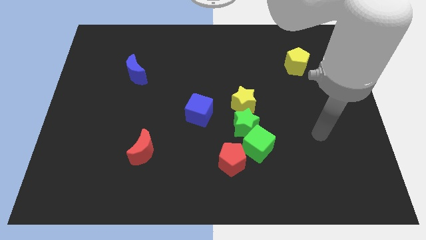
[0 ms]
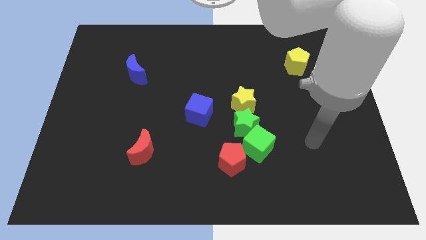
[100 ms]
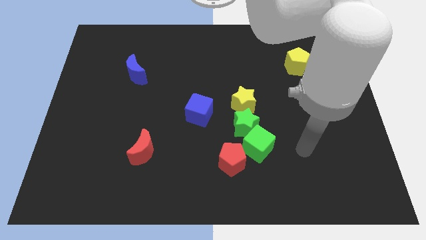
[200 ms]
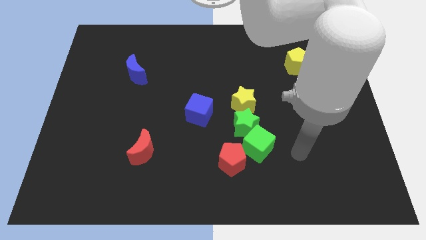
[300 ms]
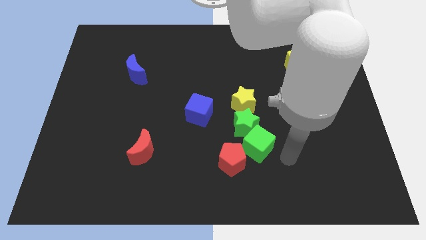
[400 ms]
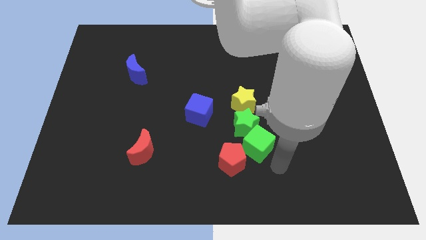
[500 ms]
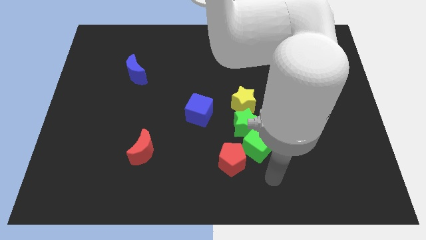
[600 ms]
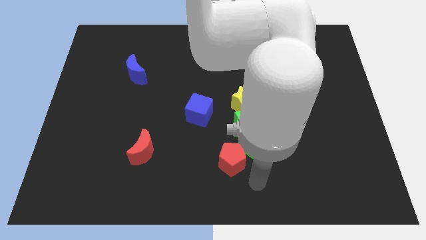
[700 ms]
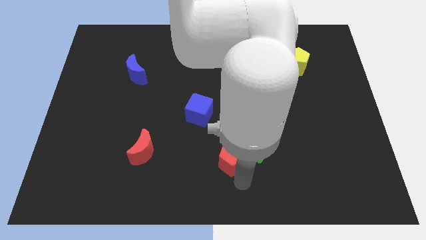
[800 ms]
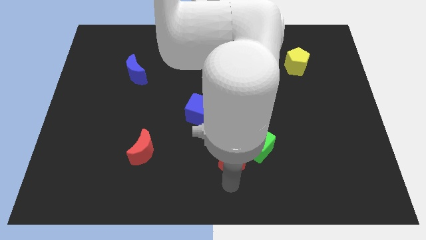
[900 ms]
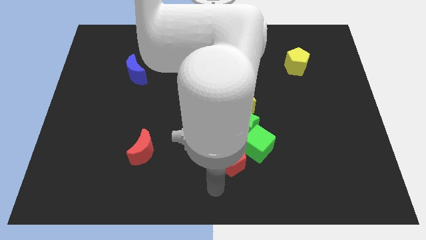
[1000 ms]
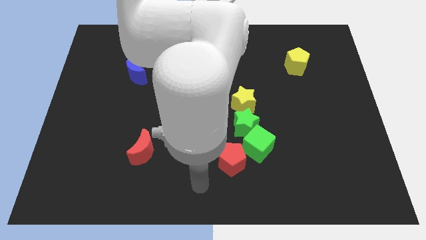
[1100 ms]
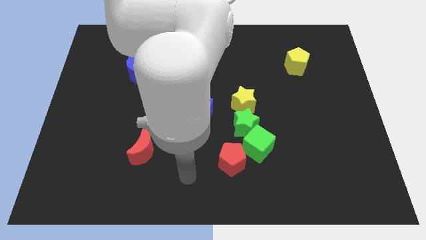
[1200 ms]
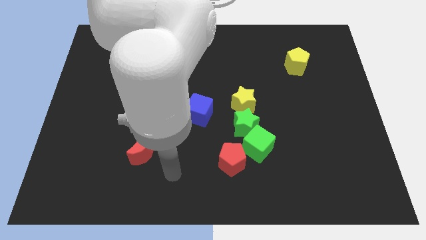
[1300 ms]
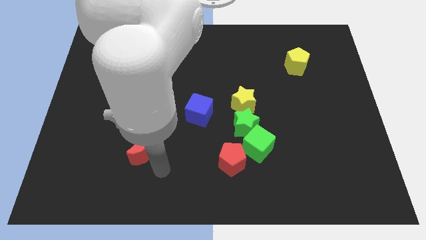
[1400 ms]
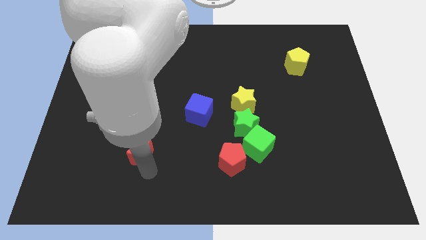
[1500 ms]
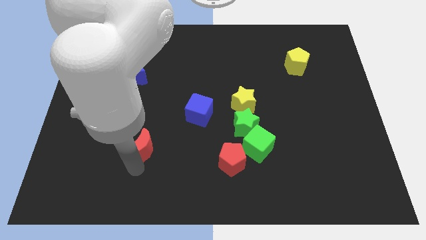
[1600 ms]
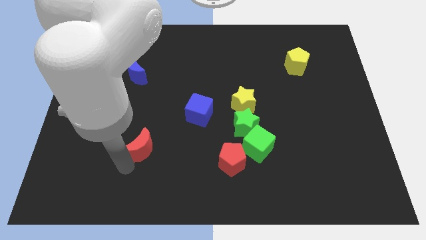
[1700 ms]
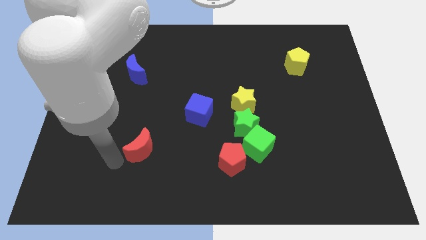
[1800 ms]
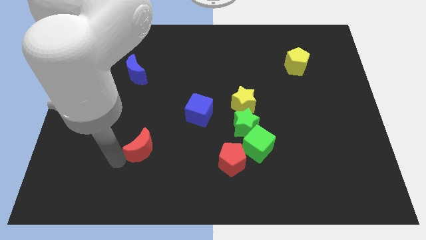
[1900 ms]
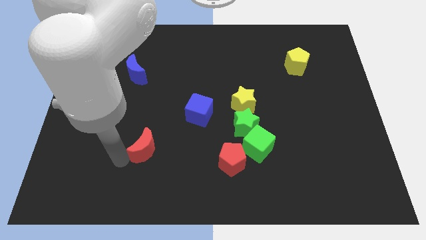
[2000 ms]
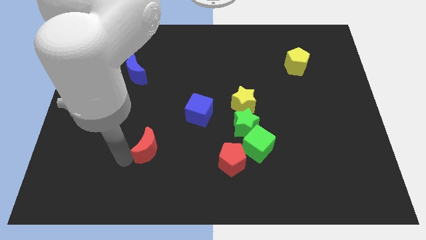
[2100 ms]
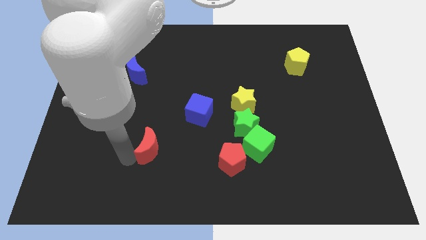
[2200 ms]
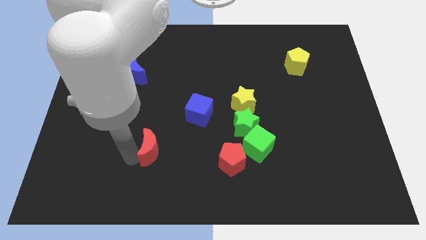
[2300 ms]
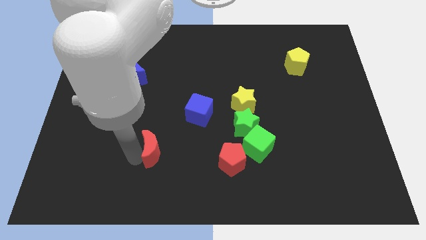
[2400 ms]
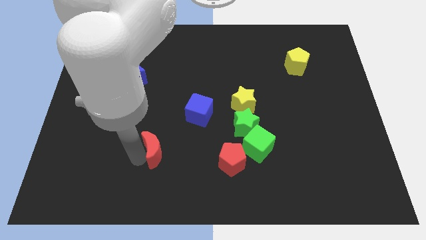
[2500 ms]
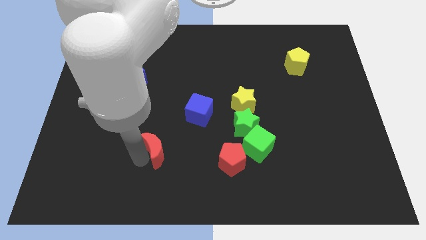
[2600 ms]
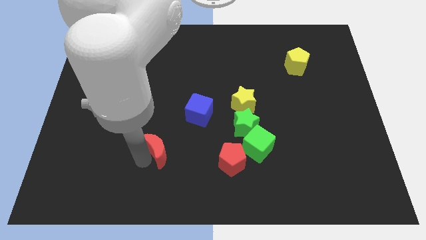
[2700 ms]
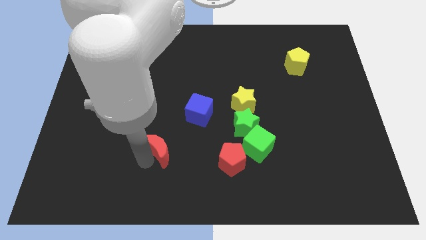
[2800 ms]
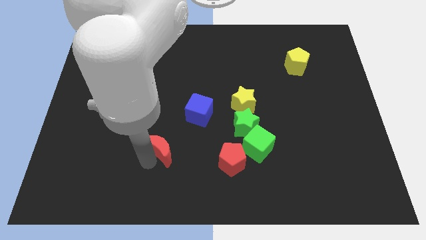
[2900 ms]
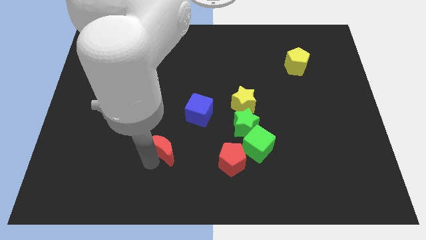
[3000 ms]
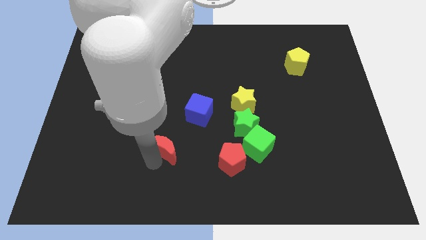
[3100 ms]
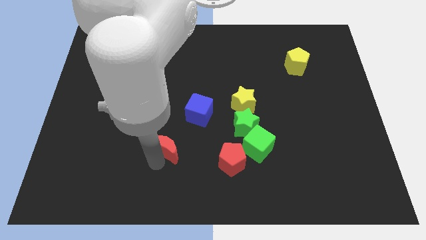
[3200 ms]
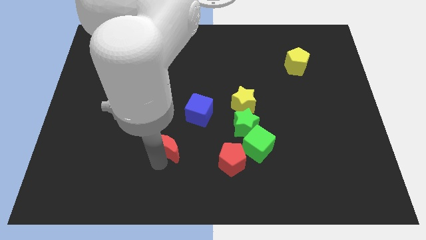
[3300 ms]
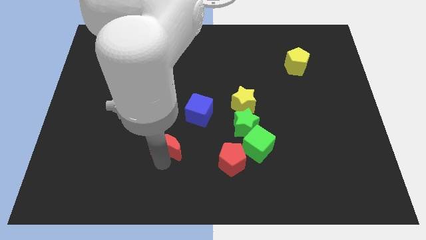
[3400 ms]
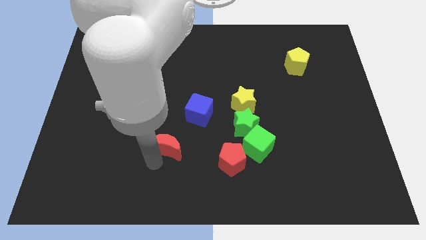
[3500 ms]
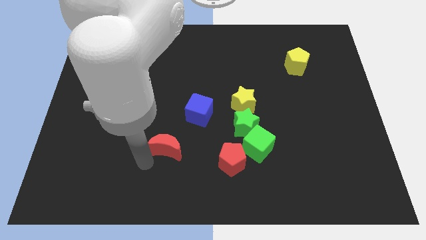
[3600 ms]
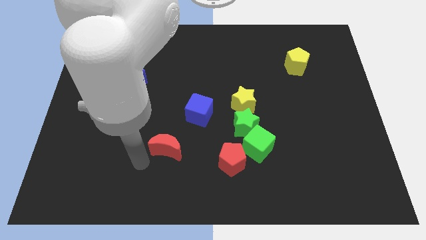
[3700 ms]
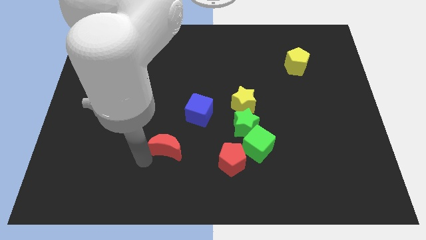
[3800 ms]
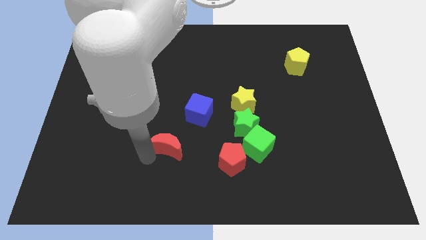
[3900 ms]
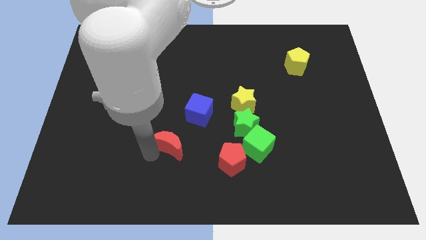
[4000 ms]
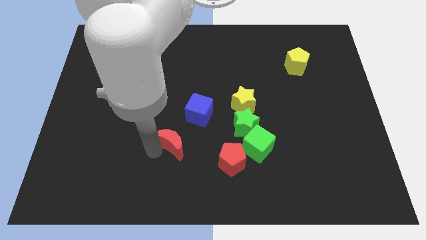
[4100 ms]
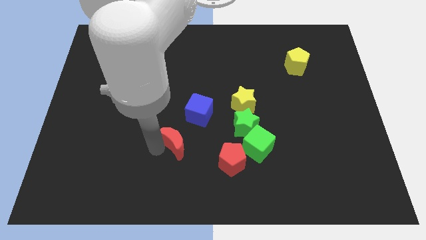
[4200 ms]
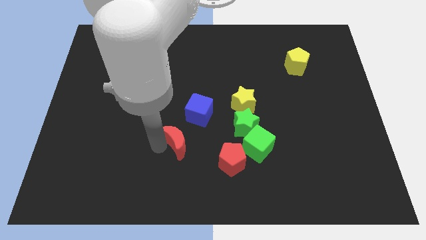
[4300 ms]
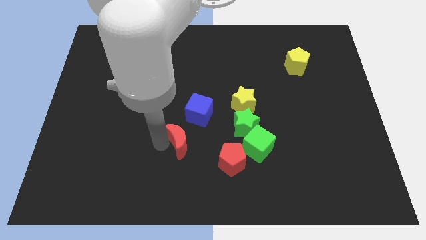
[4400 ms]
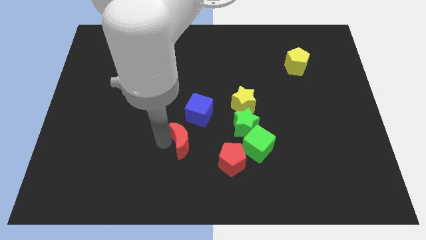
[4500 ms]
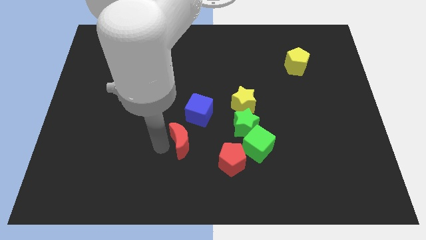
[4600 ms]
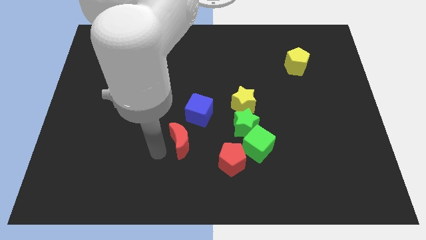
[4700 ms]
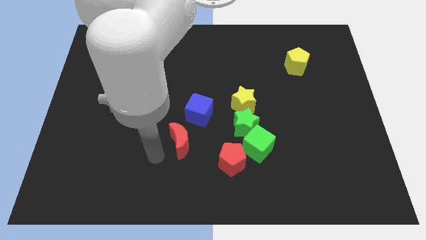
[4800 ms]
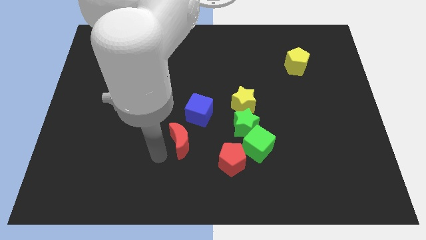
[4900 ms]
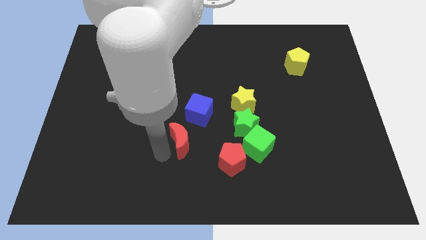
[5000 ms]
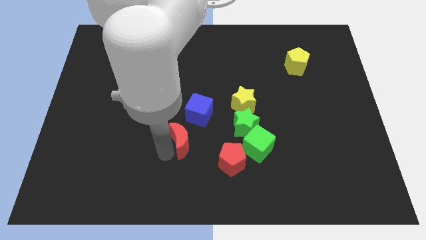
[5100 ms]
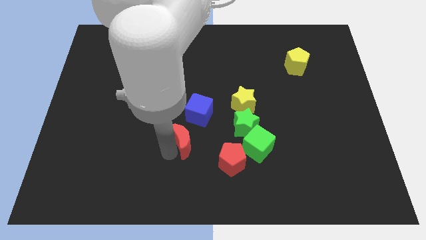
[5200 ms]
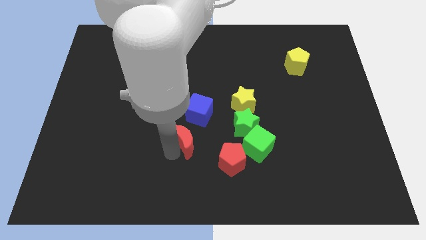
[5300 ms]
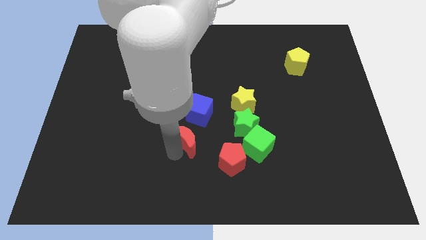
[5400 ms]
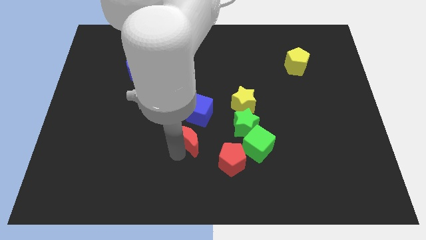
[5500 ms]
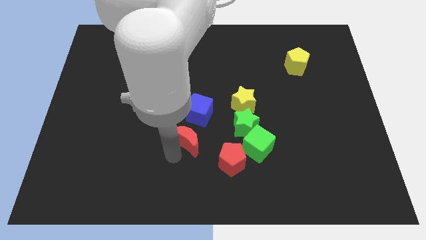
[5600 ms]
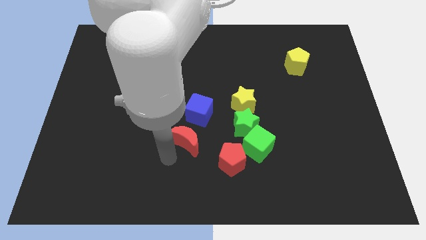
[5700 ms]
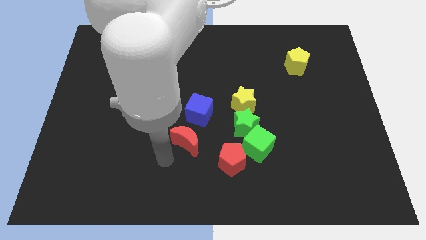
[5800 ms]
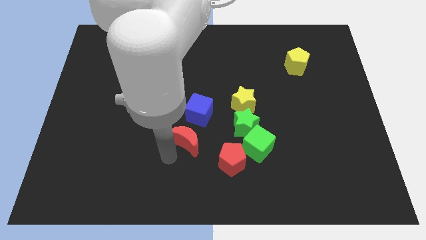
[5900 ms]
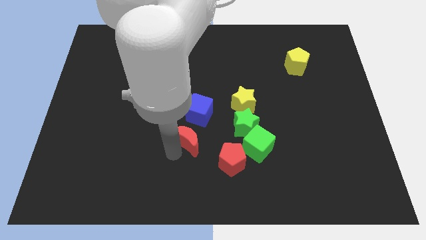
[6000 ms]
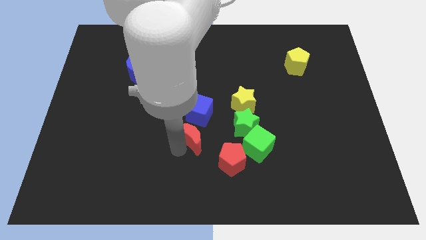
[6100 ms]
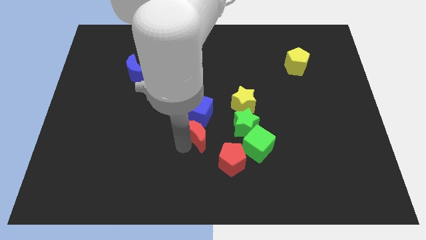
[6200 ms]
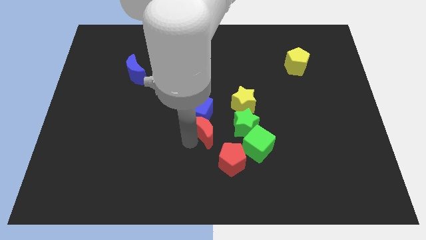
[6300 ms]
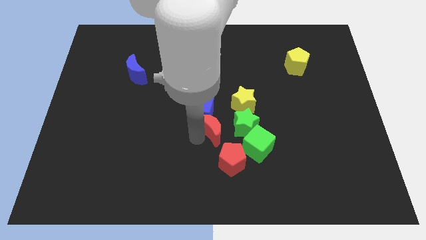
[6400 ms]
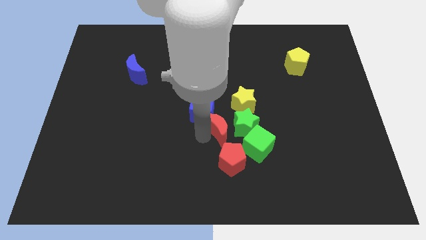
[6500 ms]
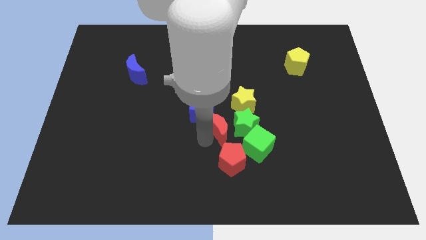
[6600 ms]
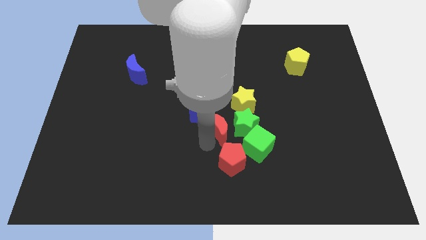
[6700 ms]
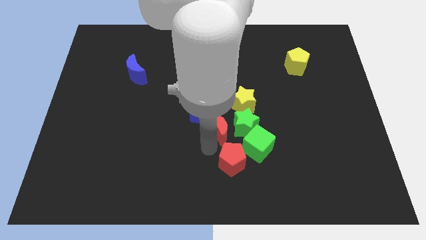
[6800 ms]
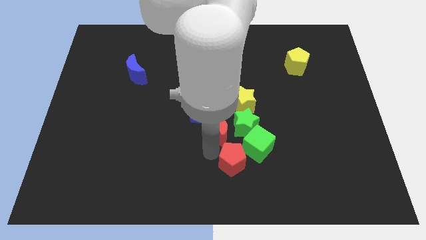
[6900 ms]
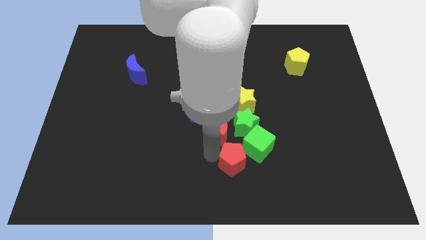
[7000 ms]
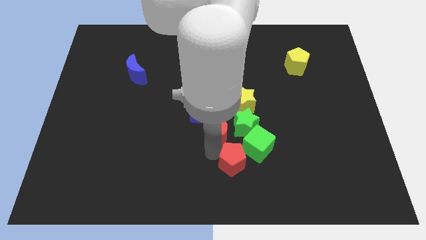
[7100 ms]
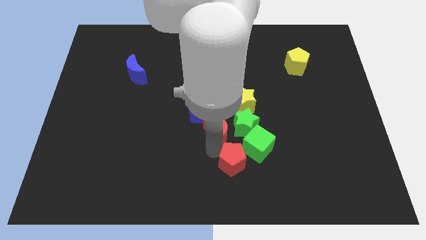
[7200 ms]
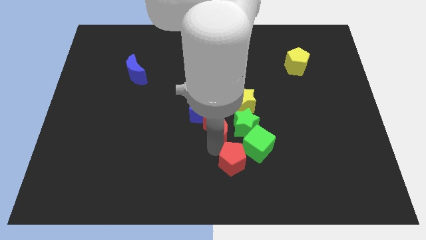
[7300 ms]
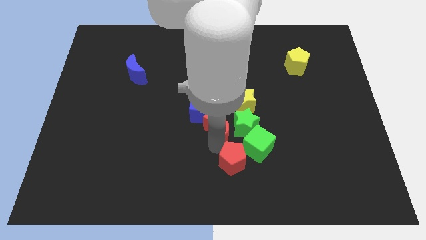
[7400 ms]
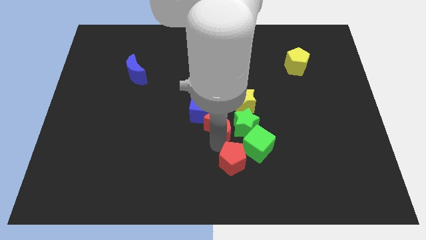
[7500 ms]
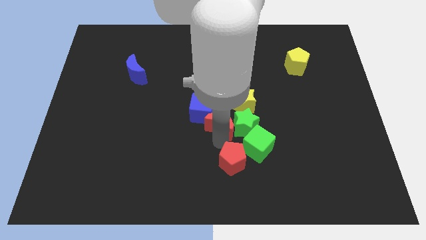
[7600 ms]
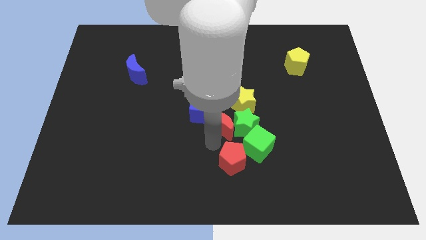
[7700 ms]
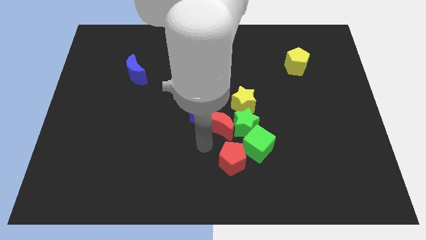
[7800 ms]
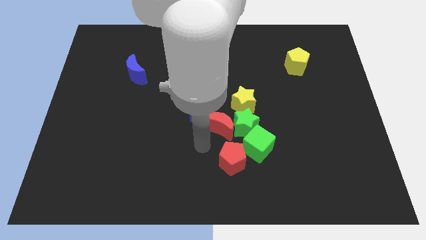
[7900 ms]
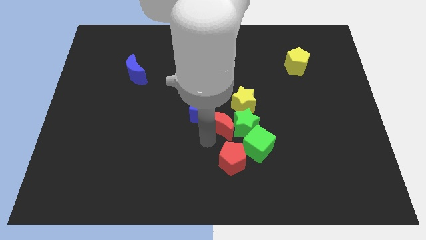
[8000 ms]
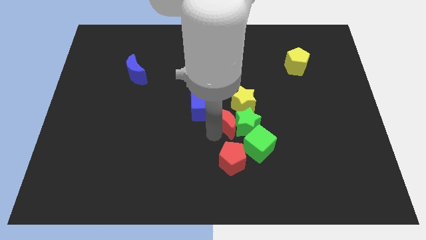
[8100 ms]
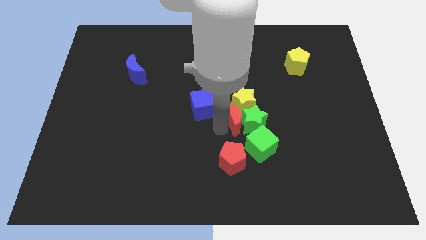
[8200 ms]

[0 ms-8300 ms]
slide the red moon close to the yellow star
